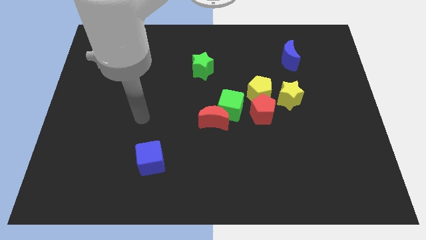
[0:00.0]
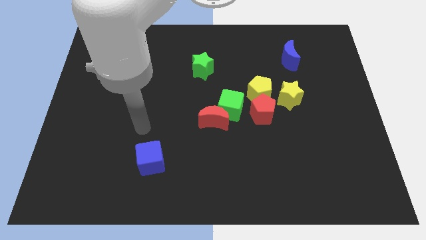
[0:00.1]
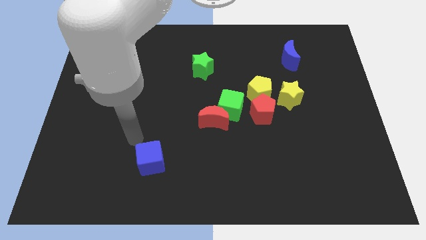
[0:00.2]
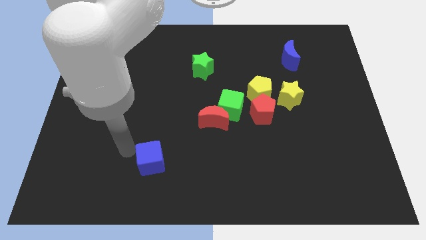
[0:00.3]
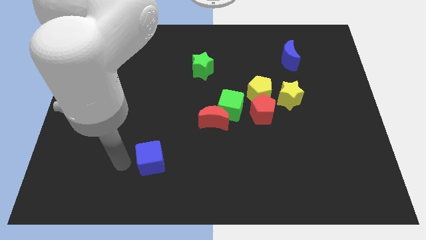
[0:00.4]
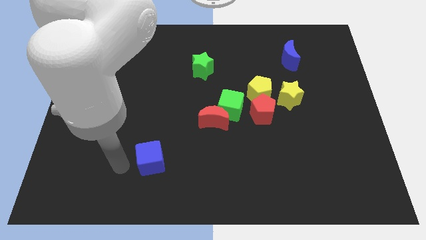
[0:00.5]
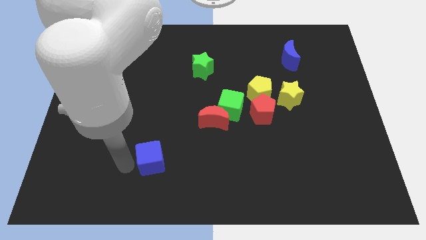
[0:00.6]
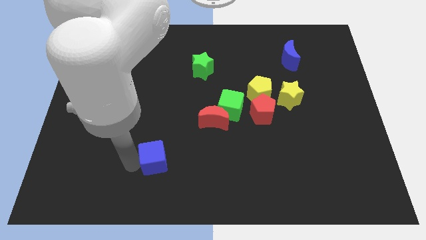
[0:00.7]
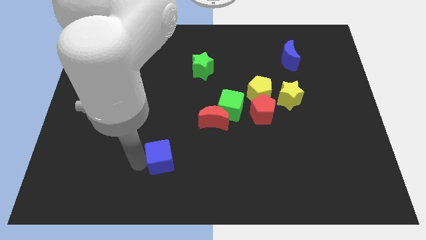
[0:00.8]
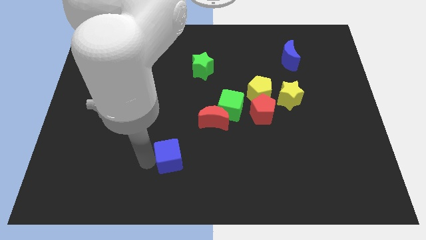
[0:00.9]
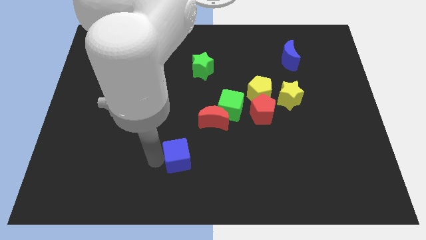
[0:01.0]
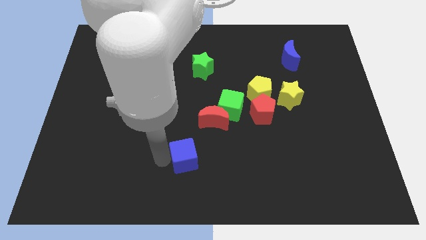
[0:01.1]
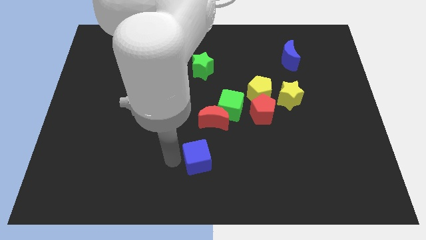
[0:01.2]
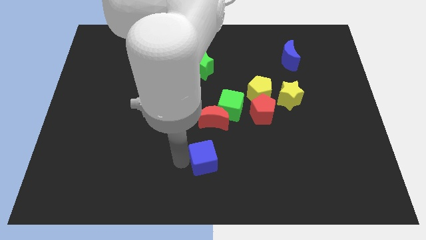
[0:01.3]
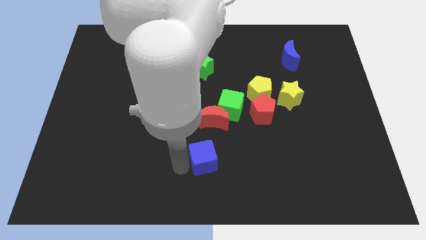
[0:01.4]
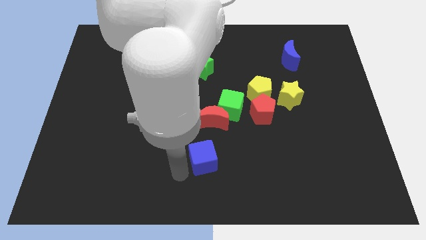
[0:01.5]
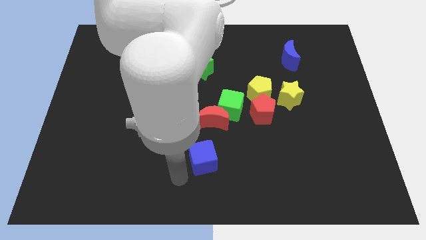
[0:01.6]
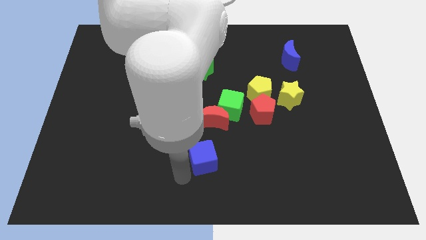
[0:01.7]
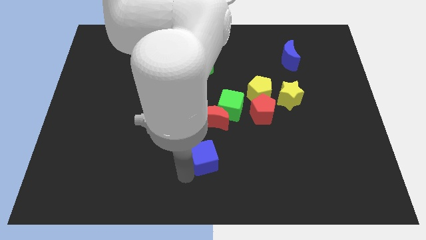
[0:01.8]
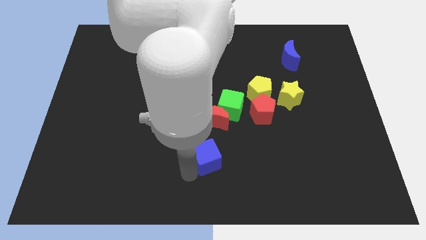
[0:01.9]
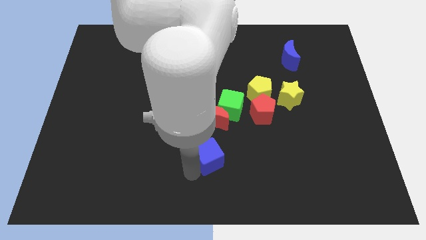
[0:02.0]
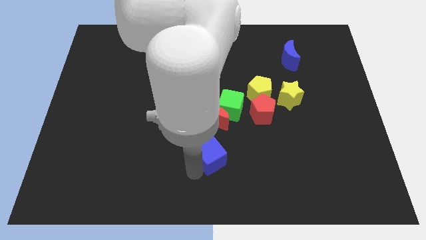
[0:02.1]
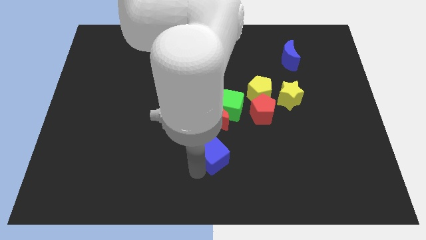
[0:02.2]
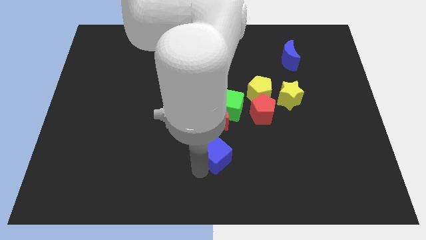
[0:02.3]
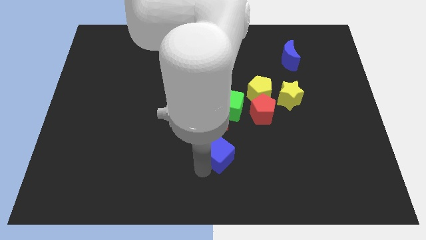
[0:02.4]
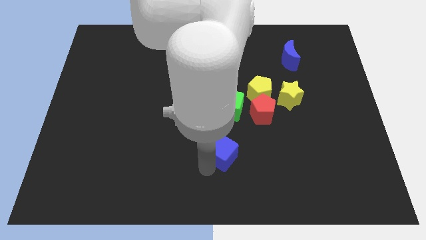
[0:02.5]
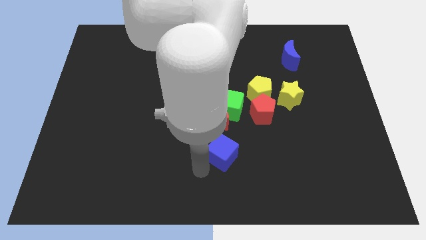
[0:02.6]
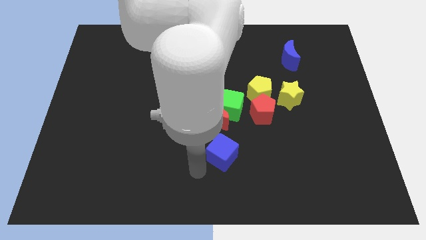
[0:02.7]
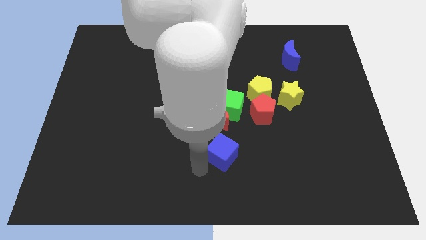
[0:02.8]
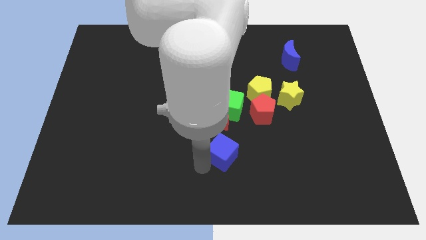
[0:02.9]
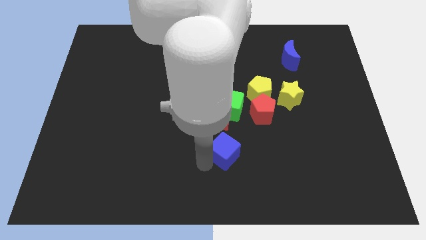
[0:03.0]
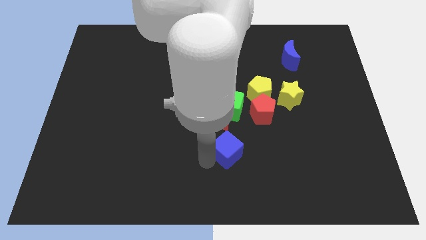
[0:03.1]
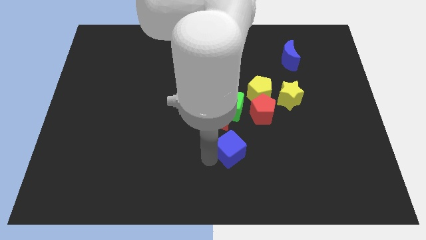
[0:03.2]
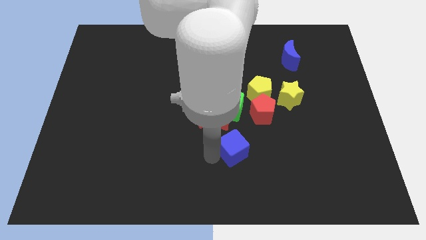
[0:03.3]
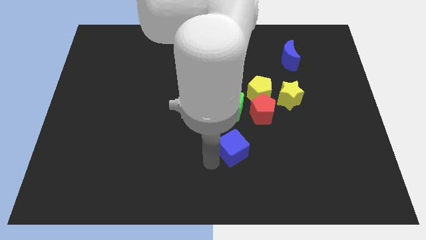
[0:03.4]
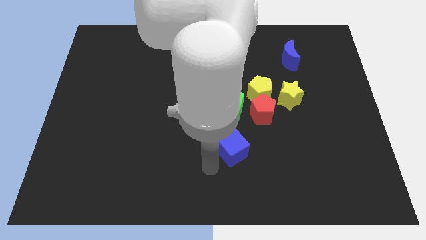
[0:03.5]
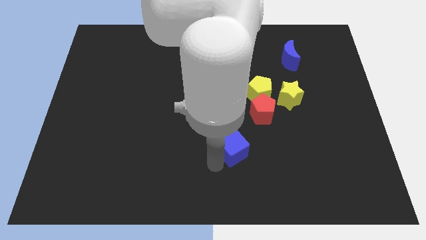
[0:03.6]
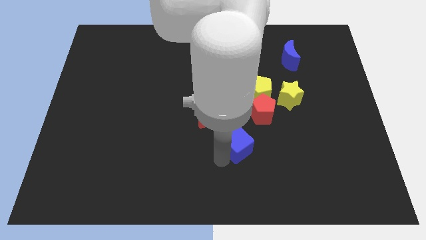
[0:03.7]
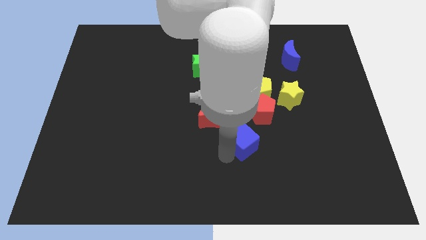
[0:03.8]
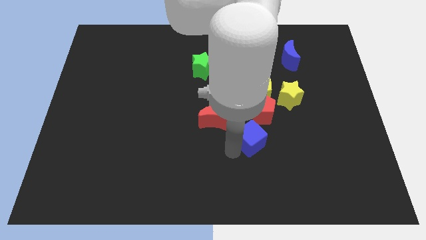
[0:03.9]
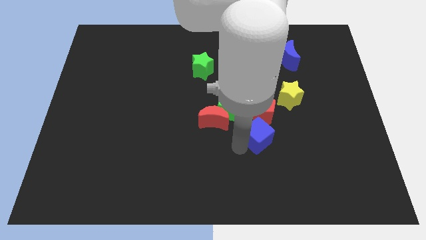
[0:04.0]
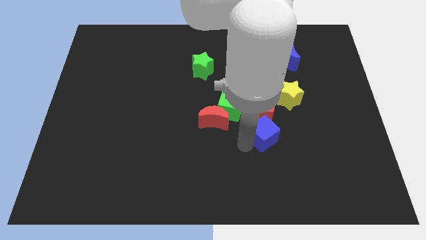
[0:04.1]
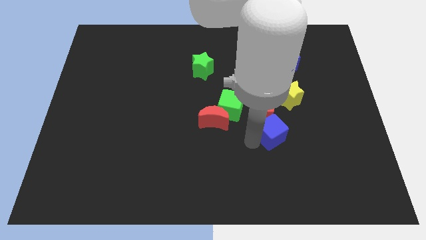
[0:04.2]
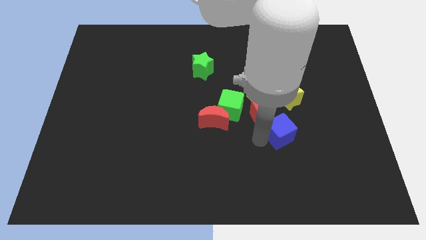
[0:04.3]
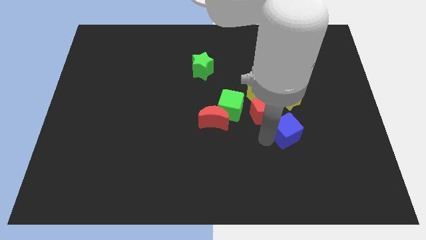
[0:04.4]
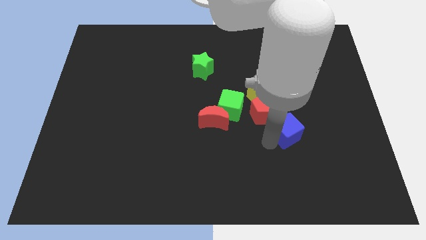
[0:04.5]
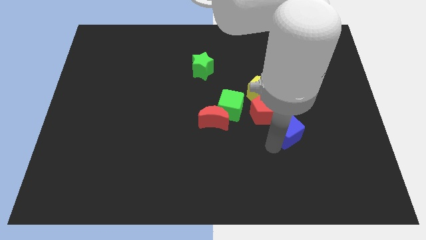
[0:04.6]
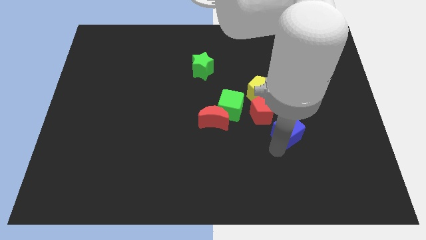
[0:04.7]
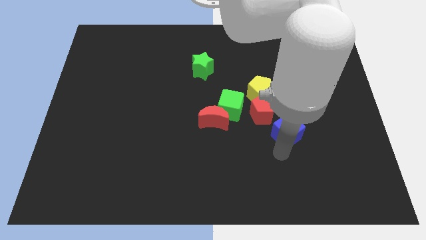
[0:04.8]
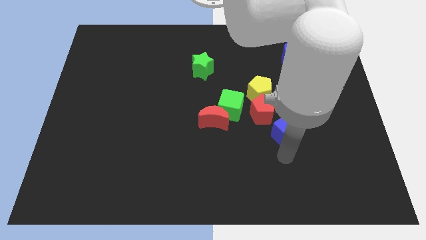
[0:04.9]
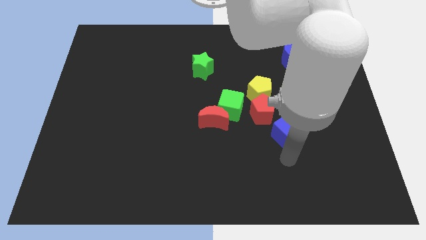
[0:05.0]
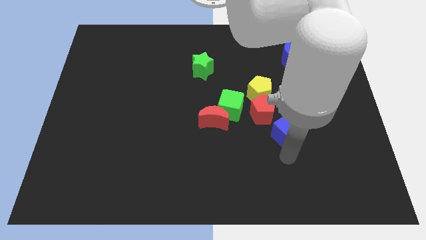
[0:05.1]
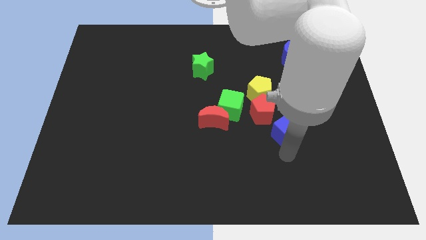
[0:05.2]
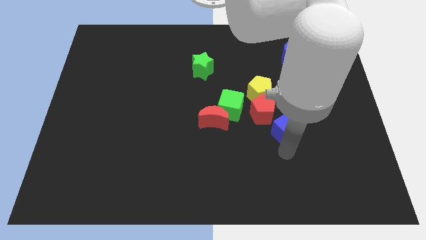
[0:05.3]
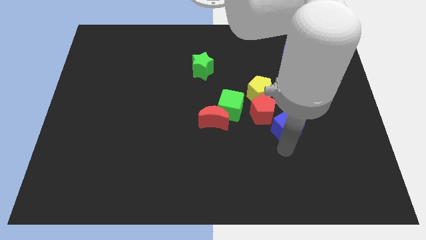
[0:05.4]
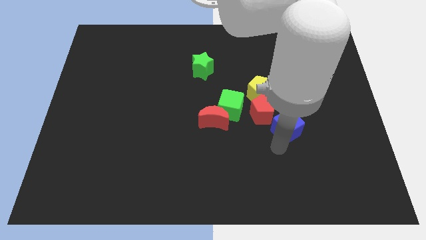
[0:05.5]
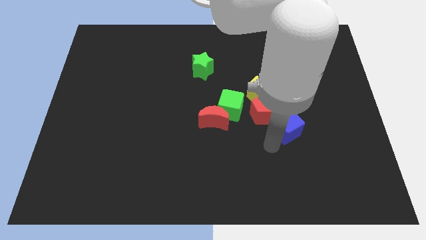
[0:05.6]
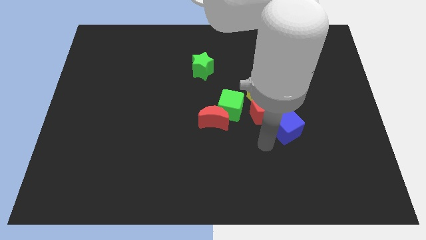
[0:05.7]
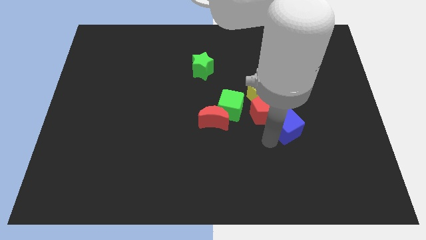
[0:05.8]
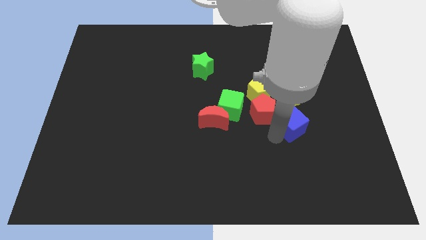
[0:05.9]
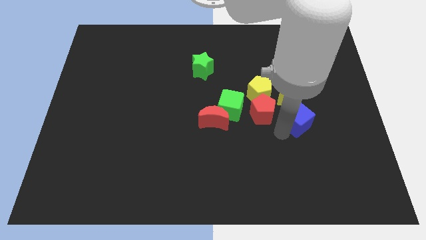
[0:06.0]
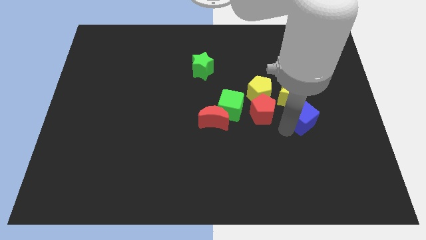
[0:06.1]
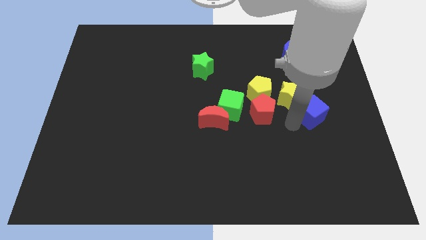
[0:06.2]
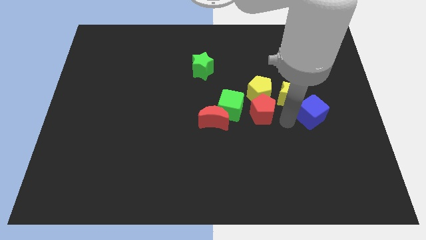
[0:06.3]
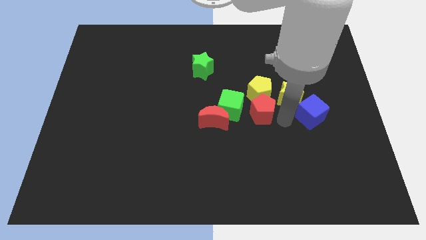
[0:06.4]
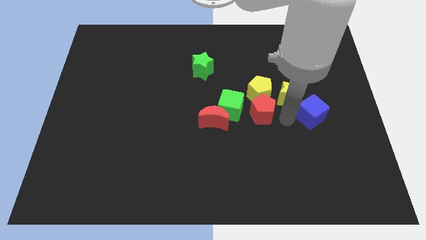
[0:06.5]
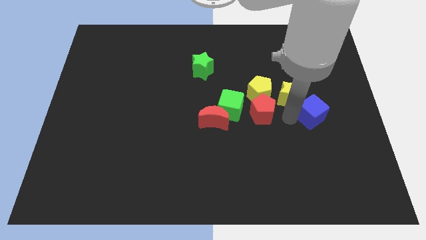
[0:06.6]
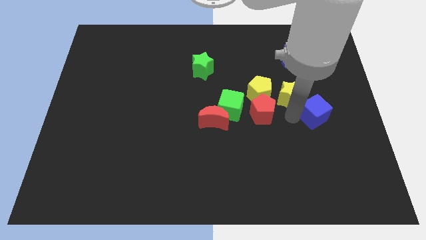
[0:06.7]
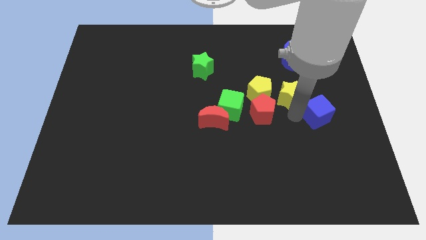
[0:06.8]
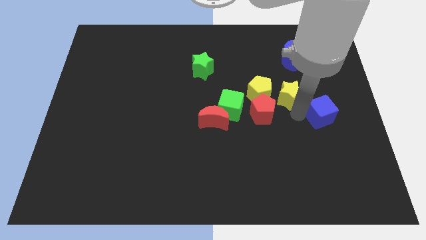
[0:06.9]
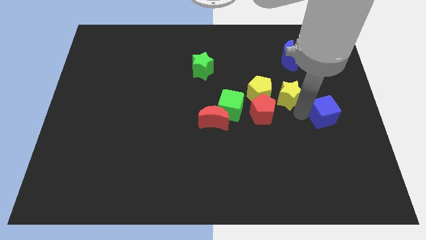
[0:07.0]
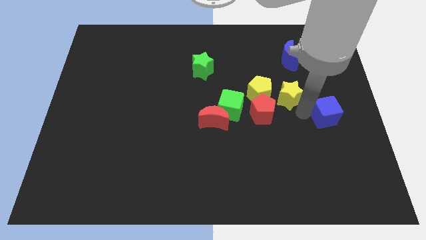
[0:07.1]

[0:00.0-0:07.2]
slide the blue cube to the right side of the board
